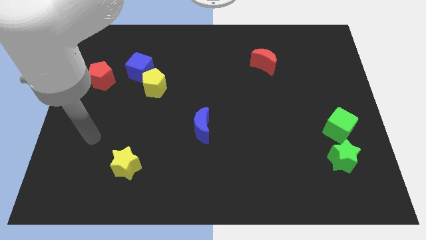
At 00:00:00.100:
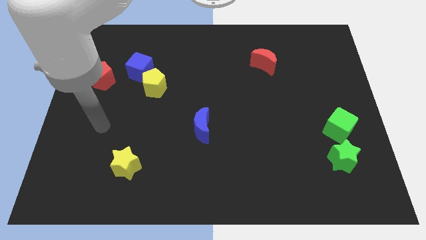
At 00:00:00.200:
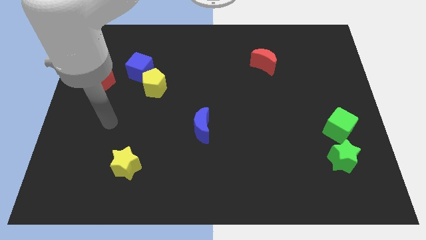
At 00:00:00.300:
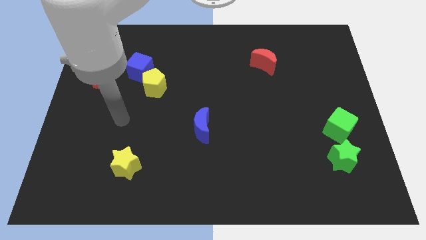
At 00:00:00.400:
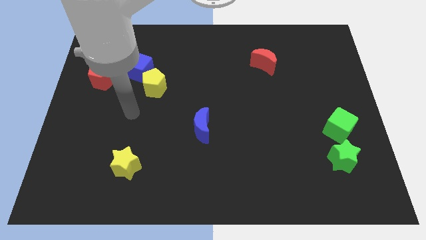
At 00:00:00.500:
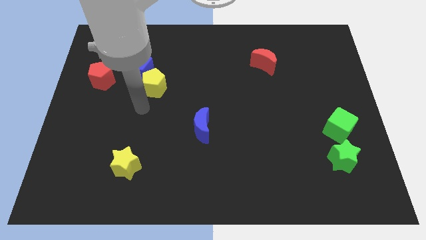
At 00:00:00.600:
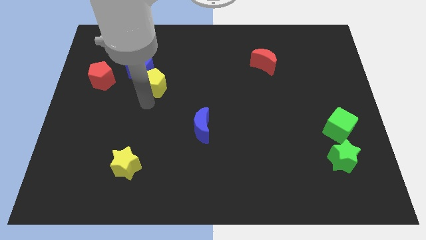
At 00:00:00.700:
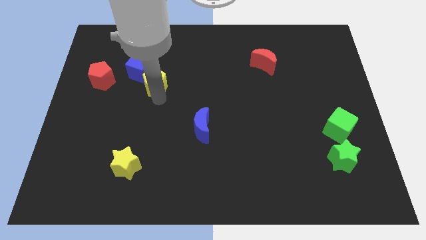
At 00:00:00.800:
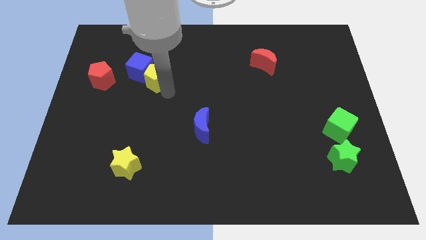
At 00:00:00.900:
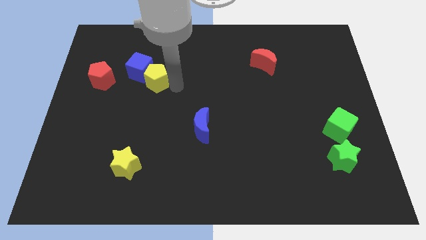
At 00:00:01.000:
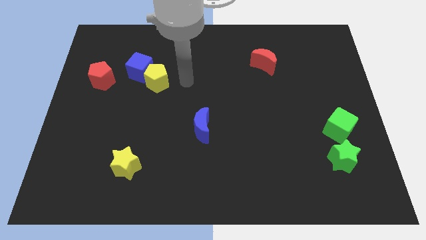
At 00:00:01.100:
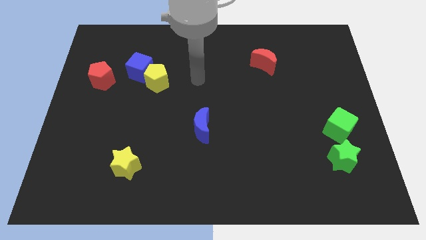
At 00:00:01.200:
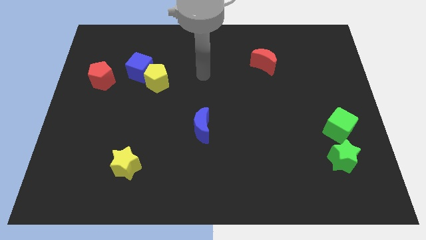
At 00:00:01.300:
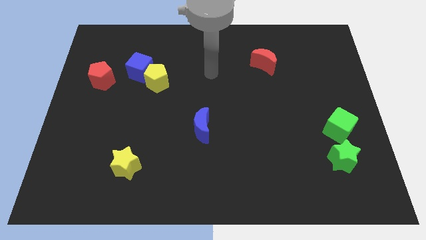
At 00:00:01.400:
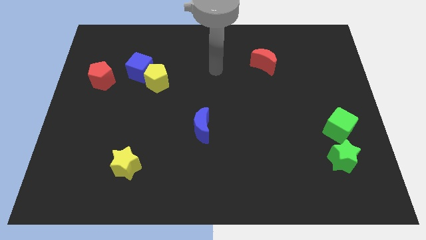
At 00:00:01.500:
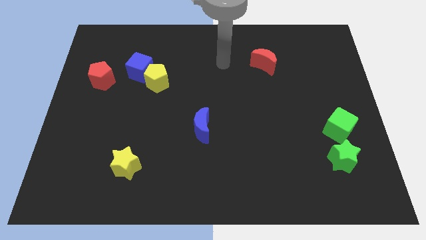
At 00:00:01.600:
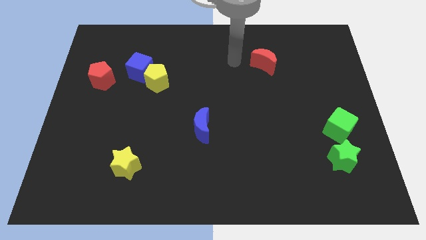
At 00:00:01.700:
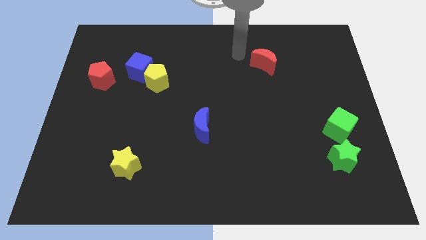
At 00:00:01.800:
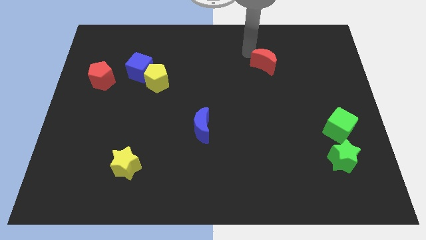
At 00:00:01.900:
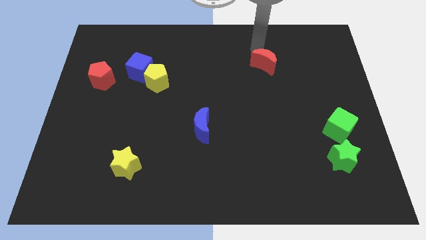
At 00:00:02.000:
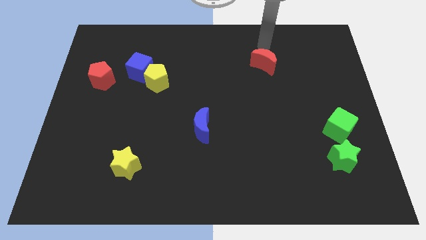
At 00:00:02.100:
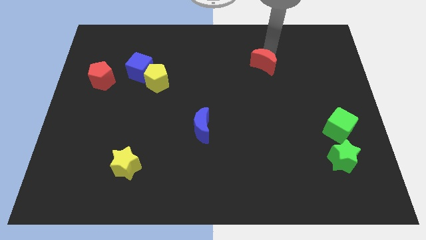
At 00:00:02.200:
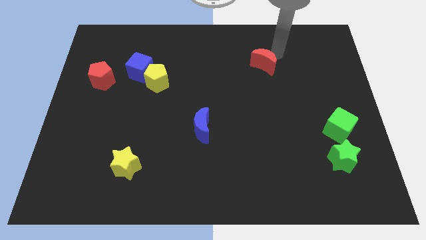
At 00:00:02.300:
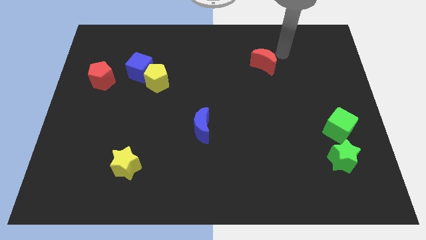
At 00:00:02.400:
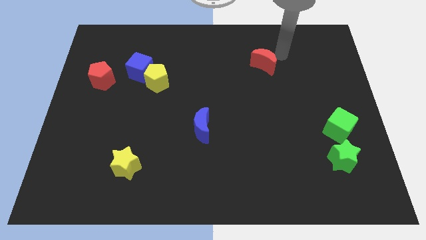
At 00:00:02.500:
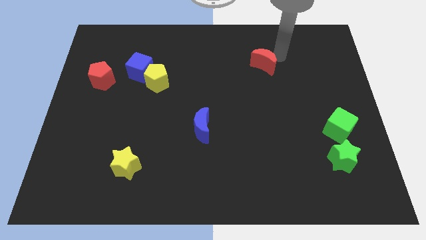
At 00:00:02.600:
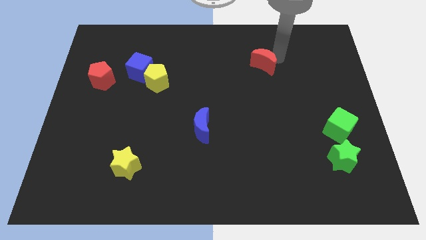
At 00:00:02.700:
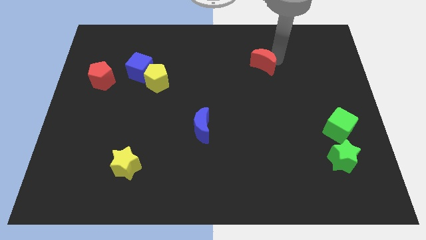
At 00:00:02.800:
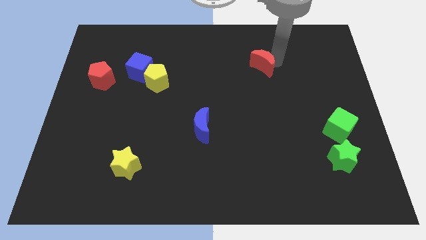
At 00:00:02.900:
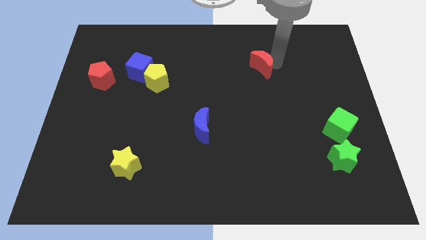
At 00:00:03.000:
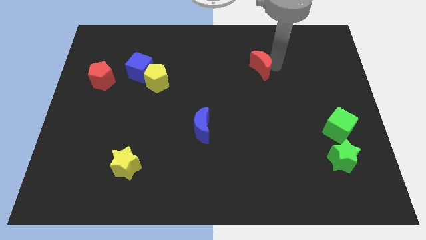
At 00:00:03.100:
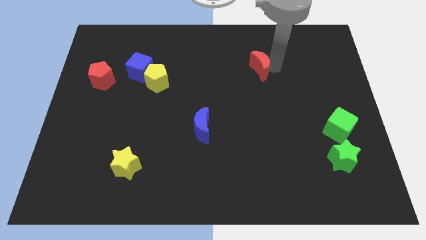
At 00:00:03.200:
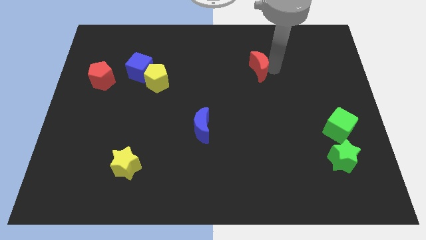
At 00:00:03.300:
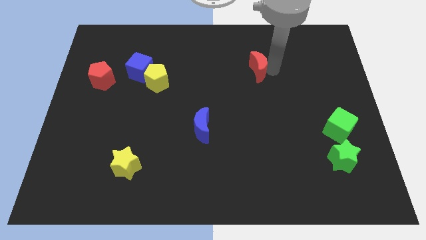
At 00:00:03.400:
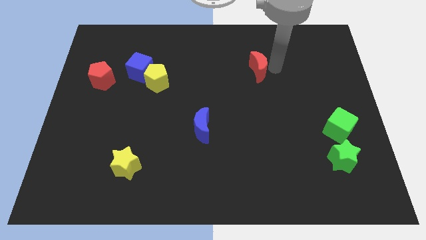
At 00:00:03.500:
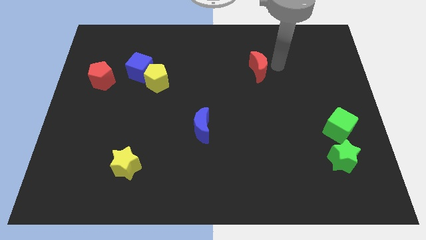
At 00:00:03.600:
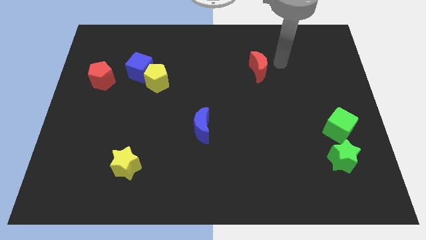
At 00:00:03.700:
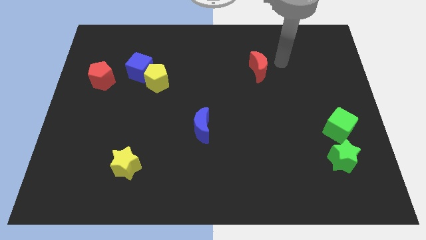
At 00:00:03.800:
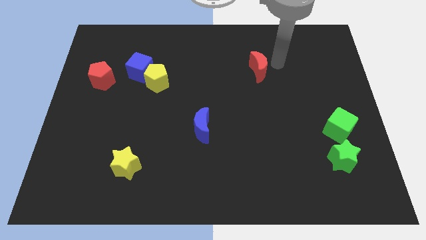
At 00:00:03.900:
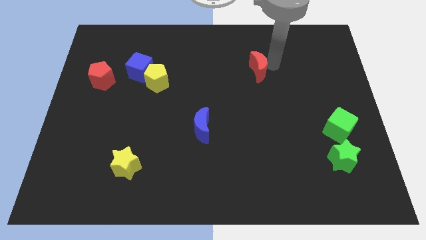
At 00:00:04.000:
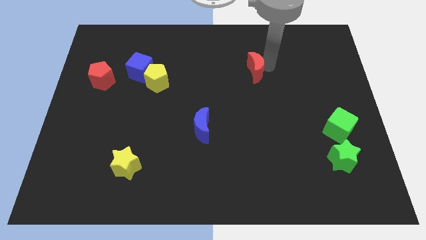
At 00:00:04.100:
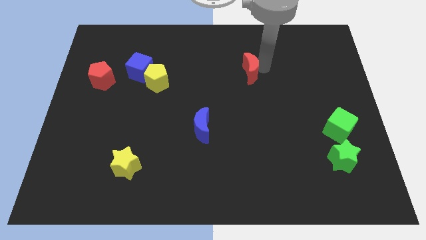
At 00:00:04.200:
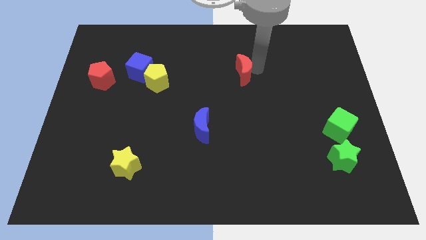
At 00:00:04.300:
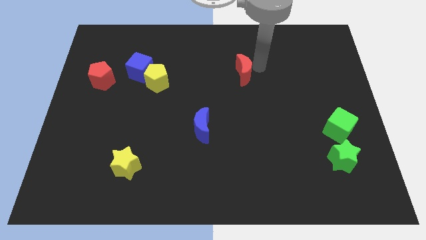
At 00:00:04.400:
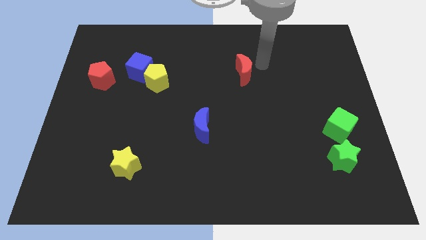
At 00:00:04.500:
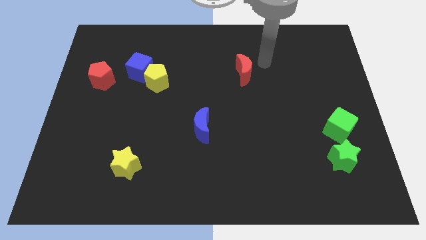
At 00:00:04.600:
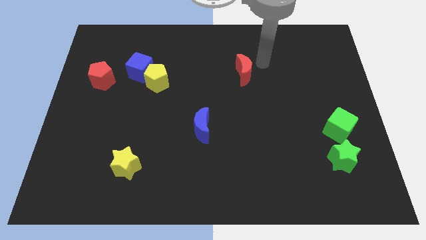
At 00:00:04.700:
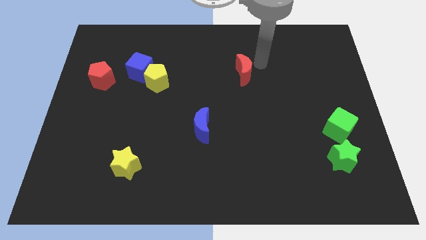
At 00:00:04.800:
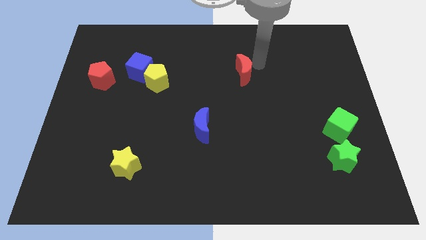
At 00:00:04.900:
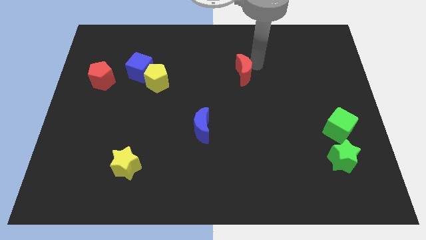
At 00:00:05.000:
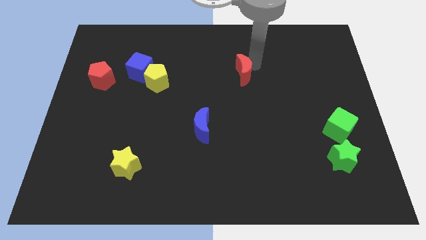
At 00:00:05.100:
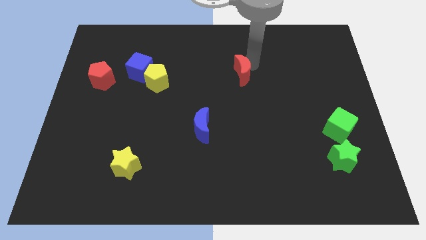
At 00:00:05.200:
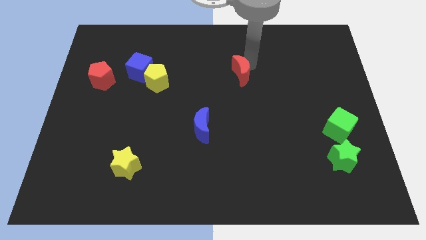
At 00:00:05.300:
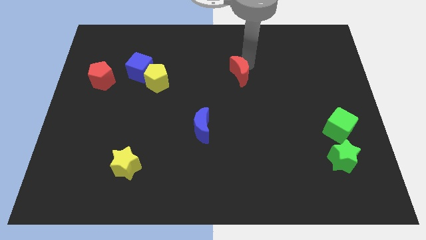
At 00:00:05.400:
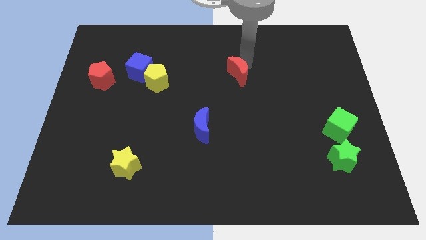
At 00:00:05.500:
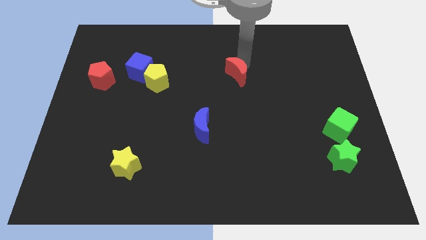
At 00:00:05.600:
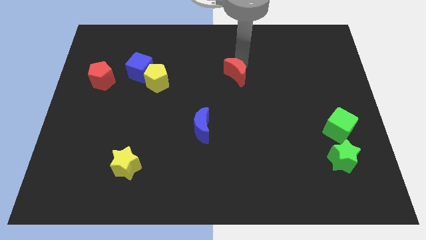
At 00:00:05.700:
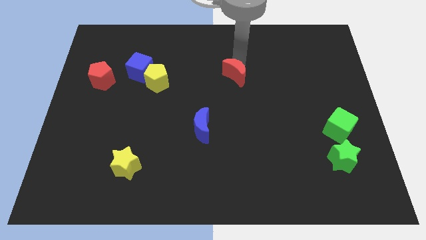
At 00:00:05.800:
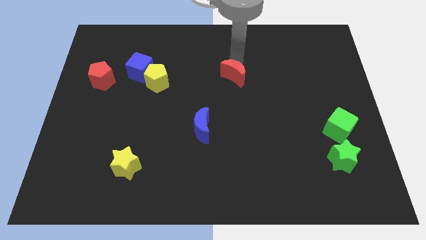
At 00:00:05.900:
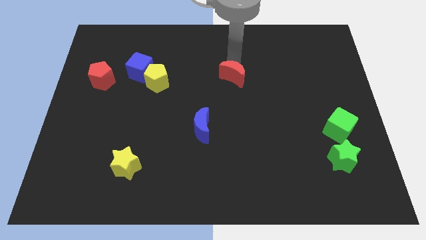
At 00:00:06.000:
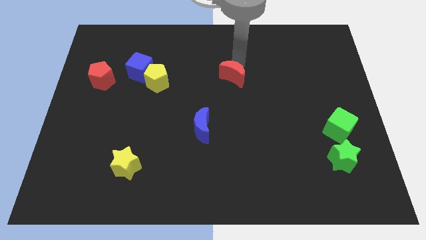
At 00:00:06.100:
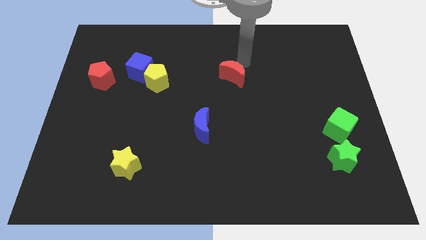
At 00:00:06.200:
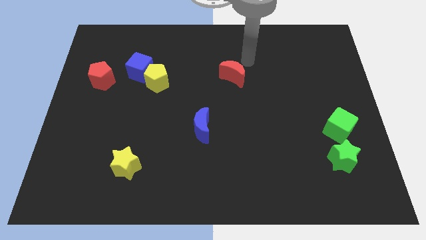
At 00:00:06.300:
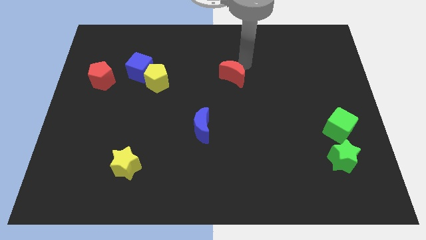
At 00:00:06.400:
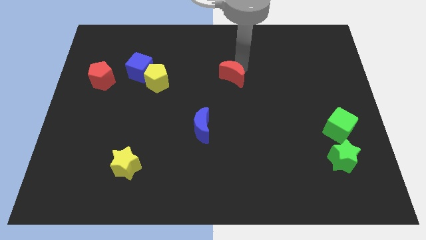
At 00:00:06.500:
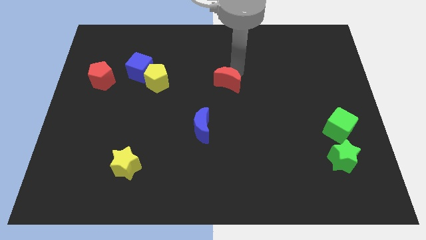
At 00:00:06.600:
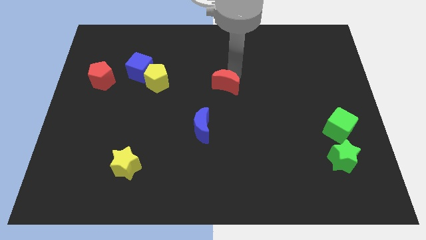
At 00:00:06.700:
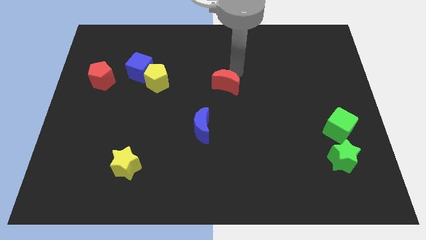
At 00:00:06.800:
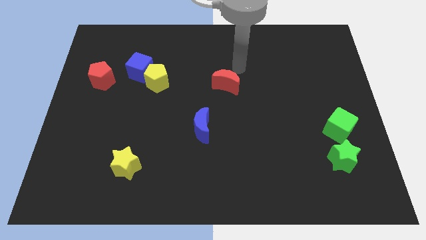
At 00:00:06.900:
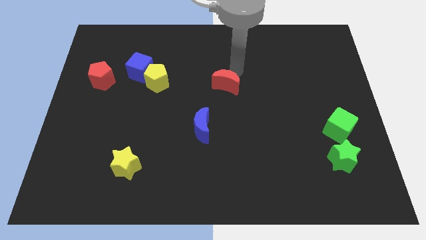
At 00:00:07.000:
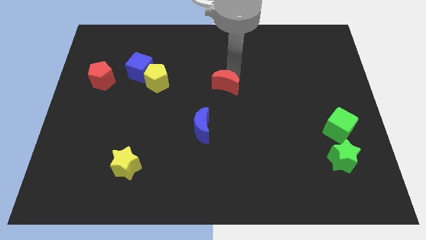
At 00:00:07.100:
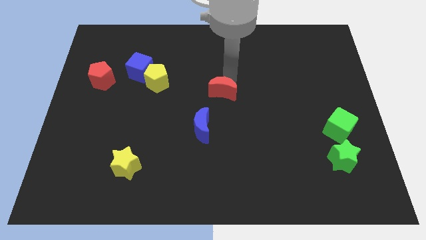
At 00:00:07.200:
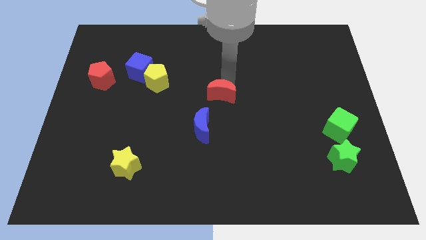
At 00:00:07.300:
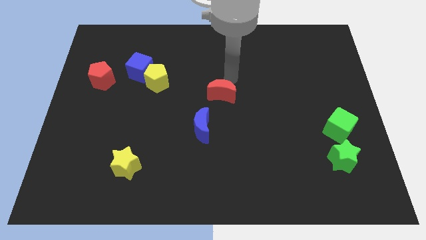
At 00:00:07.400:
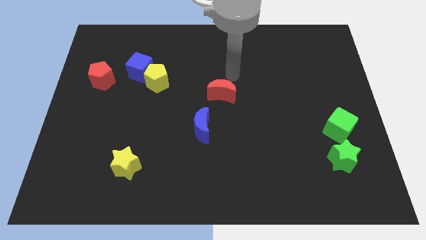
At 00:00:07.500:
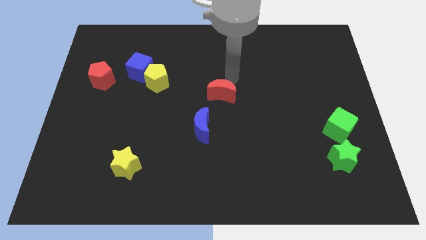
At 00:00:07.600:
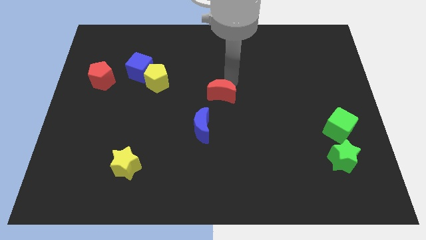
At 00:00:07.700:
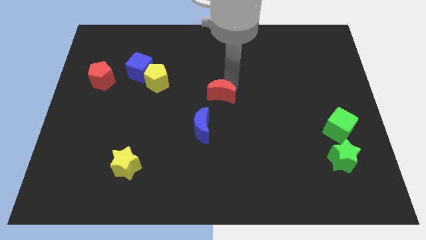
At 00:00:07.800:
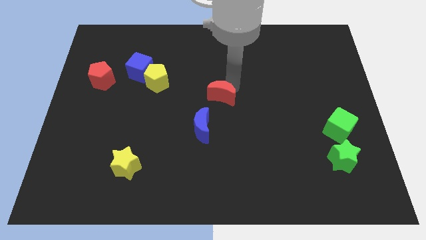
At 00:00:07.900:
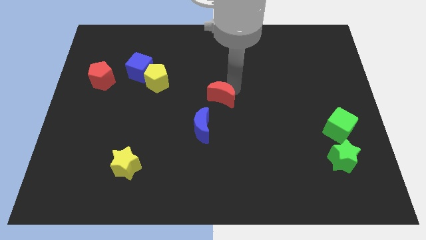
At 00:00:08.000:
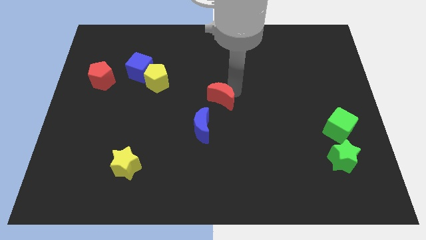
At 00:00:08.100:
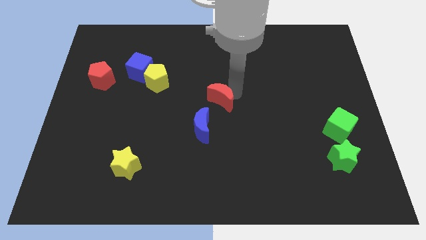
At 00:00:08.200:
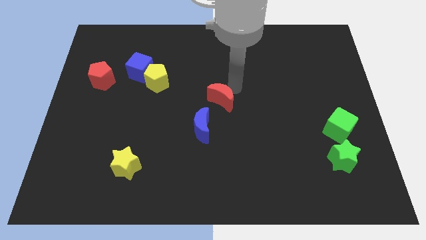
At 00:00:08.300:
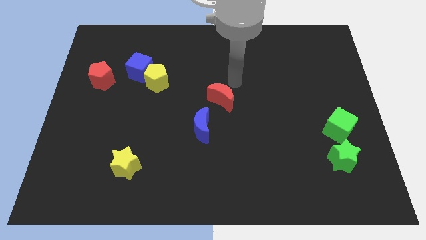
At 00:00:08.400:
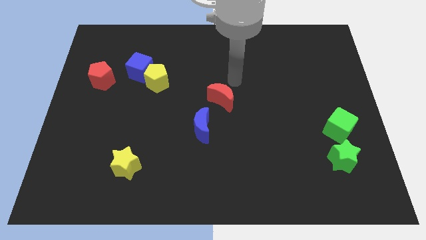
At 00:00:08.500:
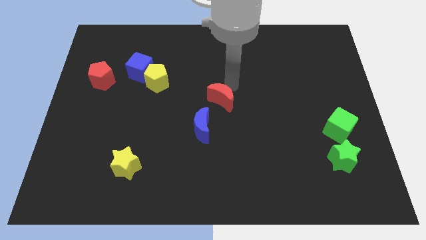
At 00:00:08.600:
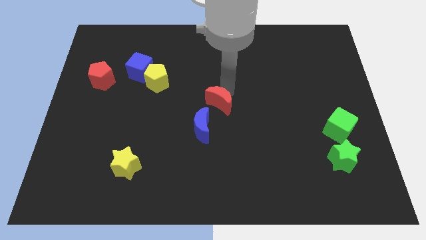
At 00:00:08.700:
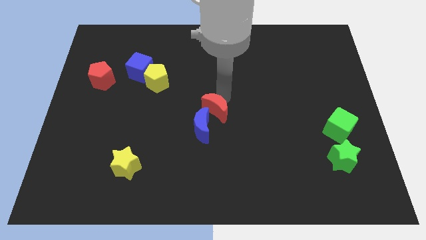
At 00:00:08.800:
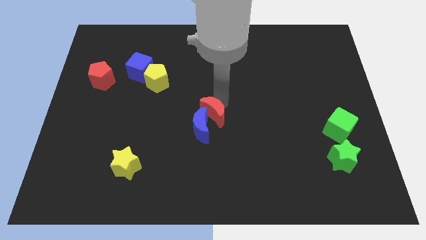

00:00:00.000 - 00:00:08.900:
move the red moon towards the blue moon
